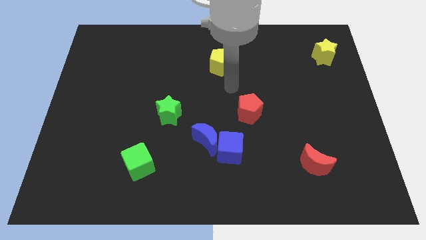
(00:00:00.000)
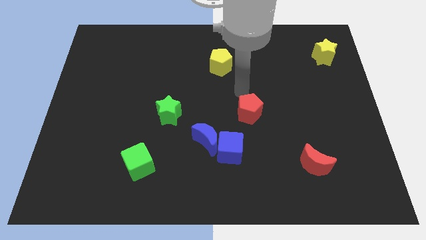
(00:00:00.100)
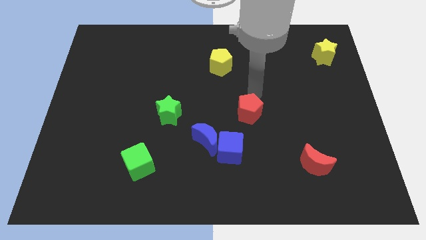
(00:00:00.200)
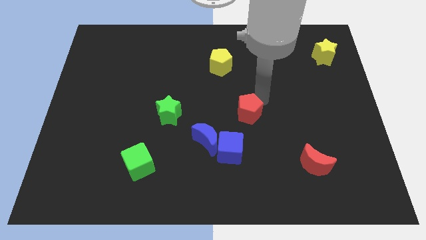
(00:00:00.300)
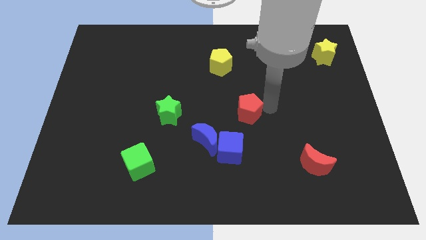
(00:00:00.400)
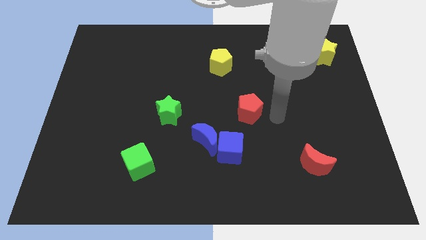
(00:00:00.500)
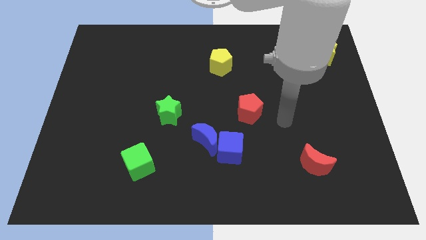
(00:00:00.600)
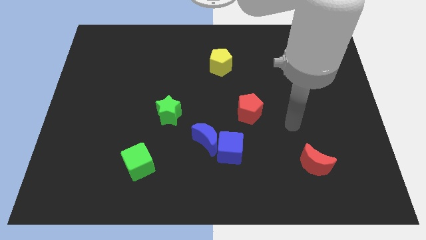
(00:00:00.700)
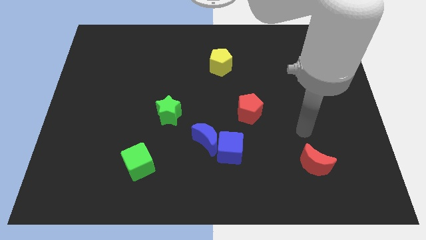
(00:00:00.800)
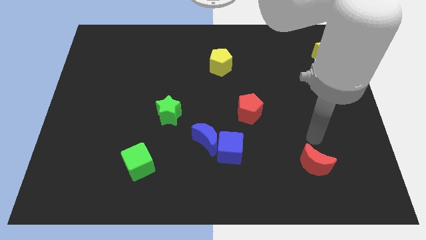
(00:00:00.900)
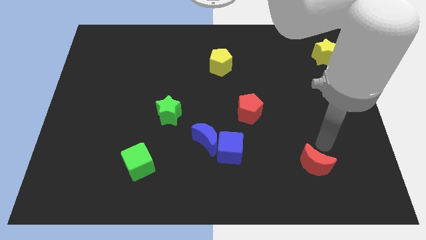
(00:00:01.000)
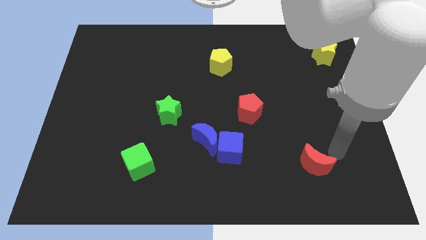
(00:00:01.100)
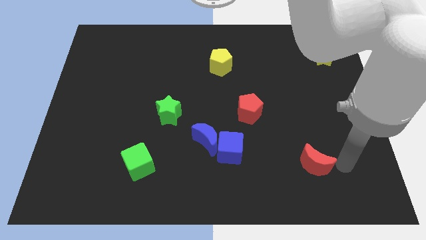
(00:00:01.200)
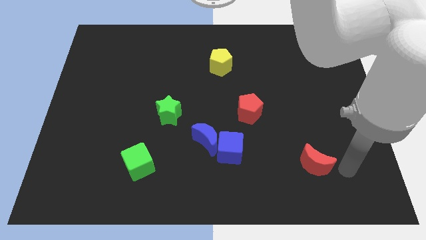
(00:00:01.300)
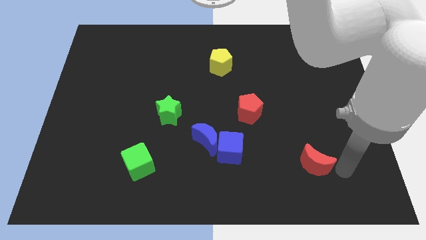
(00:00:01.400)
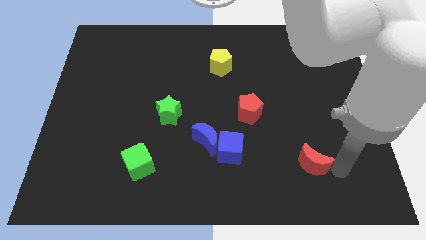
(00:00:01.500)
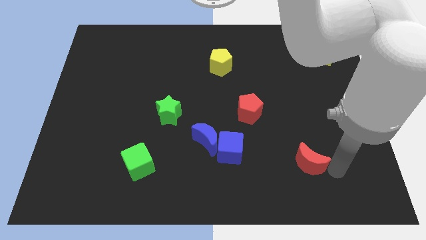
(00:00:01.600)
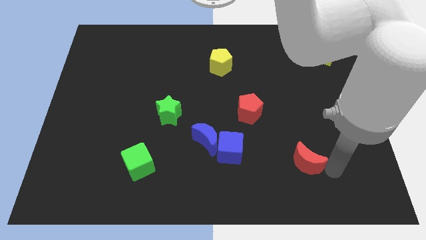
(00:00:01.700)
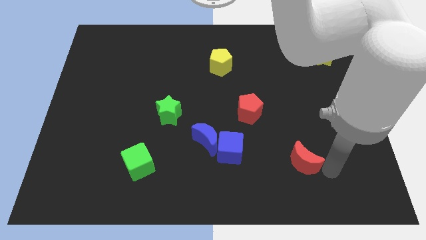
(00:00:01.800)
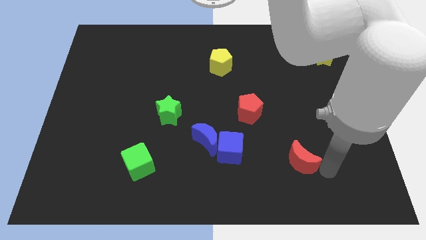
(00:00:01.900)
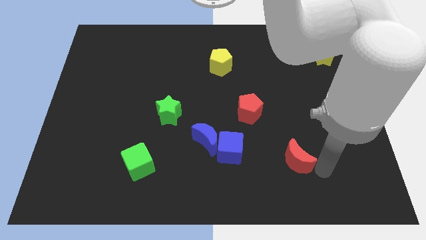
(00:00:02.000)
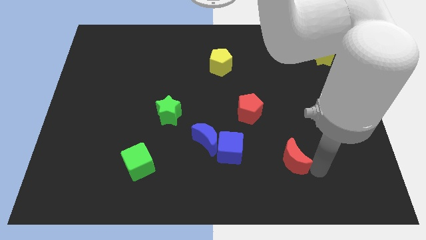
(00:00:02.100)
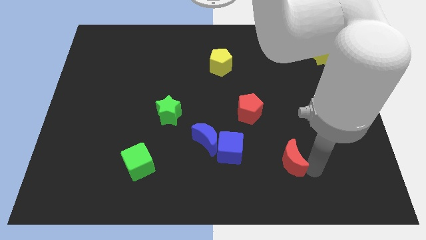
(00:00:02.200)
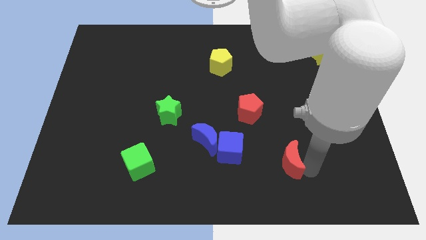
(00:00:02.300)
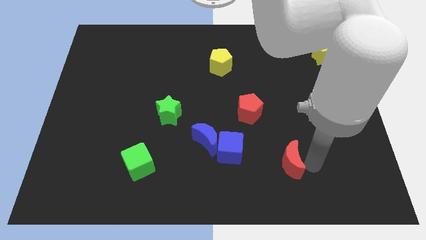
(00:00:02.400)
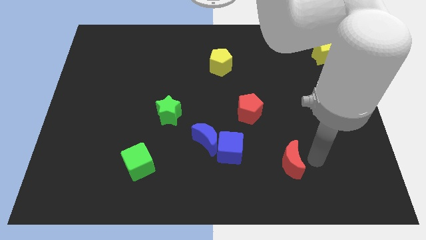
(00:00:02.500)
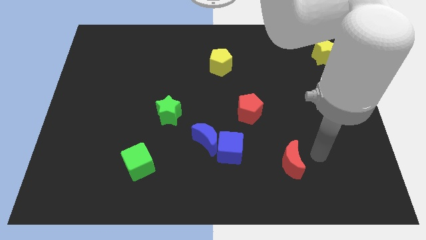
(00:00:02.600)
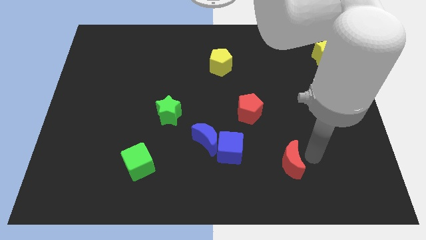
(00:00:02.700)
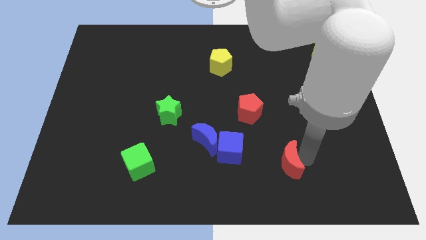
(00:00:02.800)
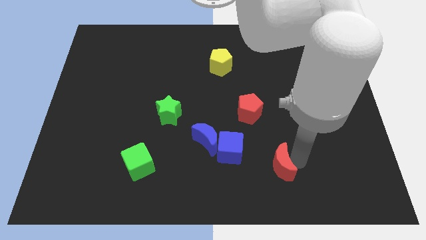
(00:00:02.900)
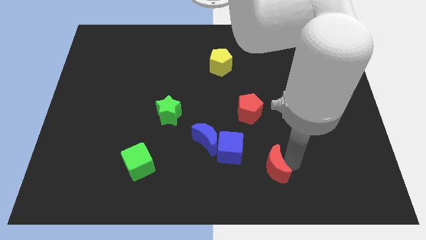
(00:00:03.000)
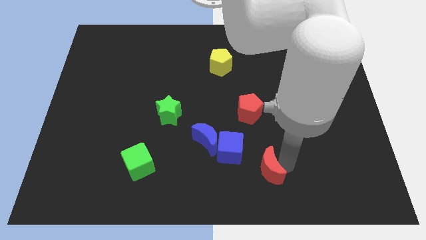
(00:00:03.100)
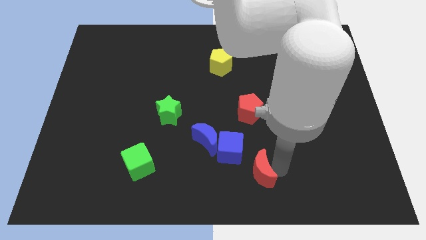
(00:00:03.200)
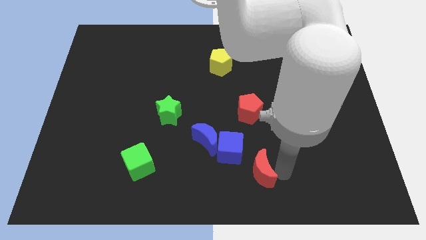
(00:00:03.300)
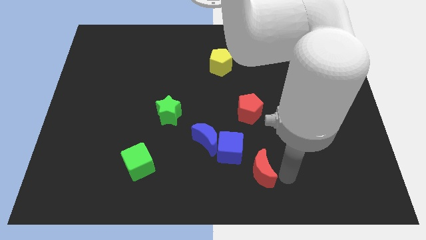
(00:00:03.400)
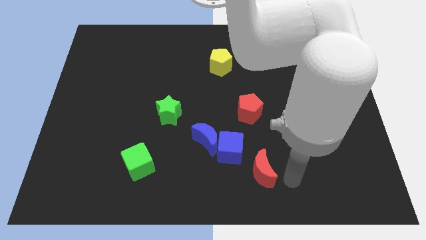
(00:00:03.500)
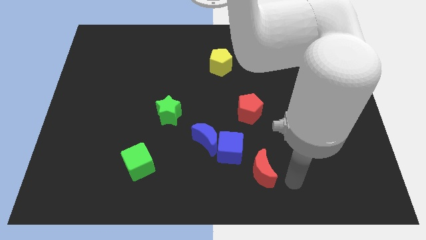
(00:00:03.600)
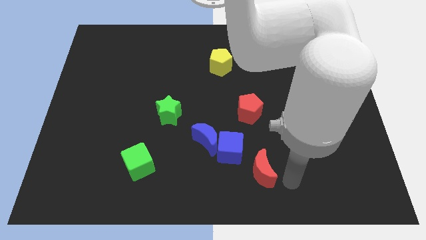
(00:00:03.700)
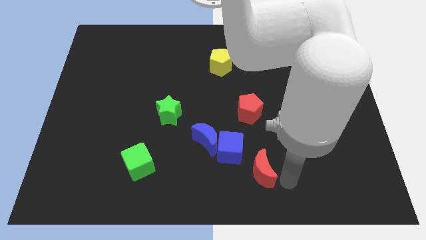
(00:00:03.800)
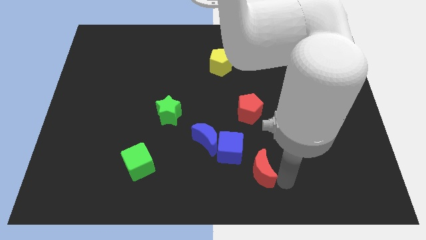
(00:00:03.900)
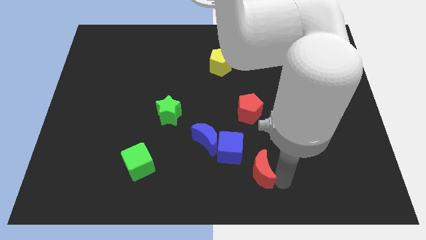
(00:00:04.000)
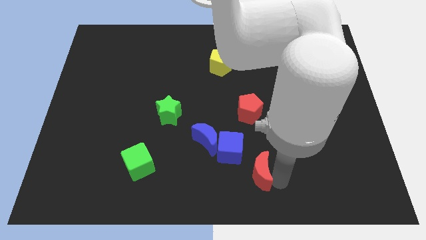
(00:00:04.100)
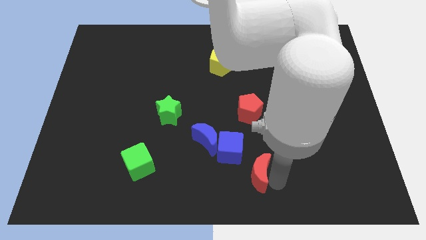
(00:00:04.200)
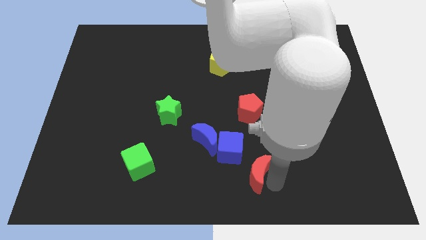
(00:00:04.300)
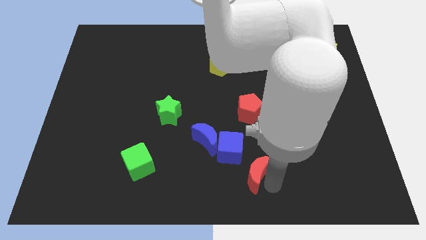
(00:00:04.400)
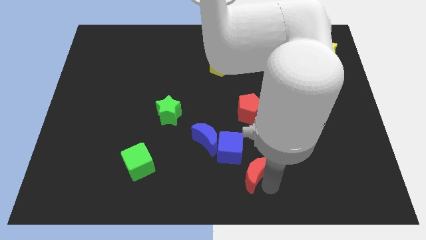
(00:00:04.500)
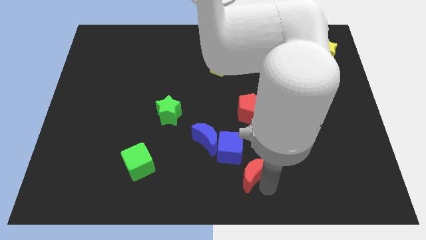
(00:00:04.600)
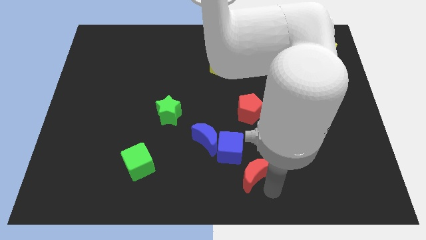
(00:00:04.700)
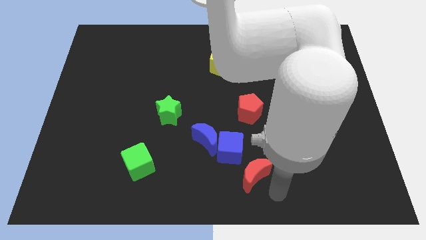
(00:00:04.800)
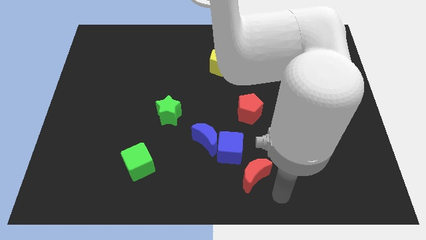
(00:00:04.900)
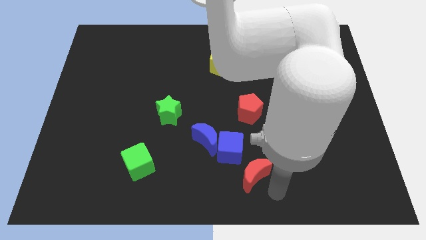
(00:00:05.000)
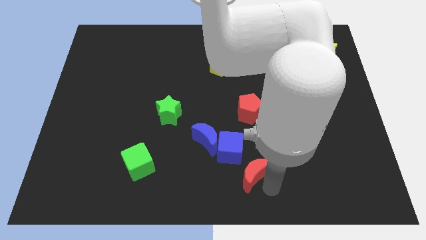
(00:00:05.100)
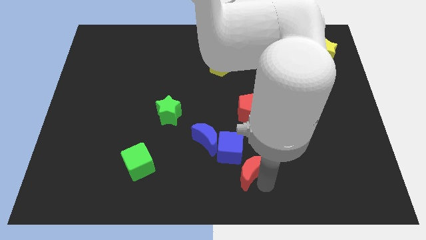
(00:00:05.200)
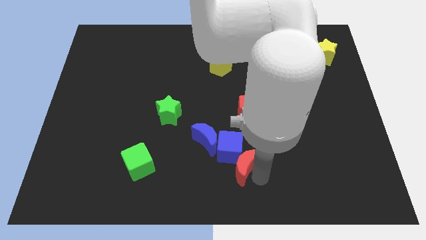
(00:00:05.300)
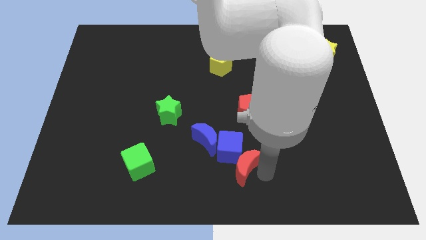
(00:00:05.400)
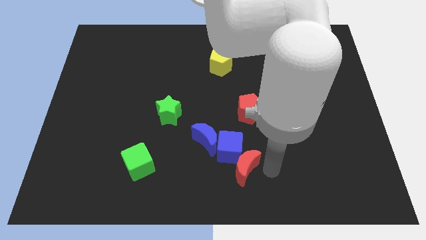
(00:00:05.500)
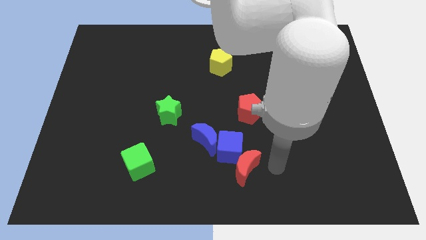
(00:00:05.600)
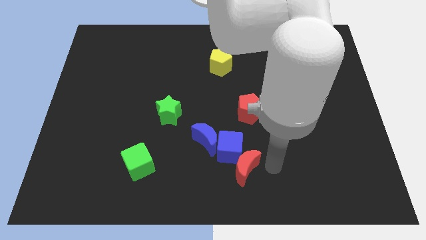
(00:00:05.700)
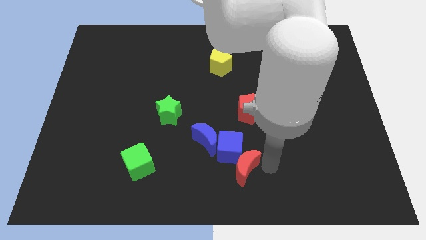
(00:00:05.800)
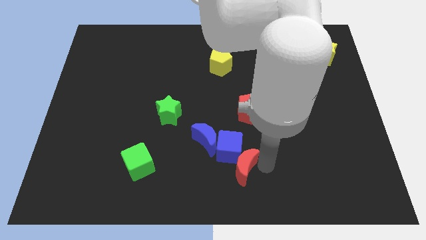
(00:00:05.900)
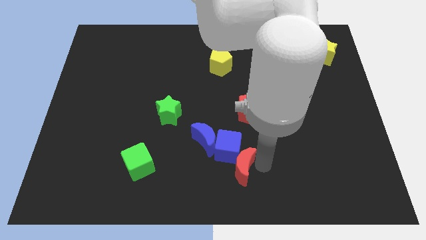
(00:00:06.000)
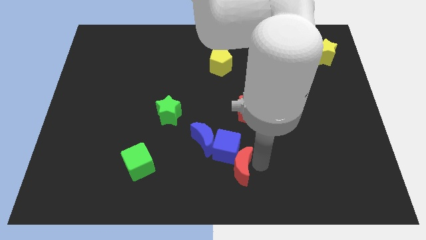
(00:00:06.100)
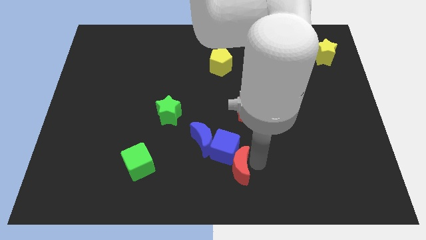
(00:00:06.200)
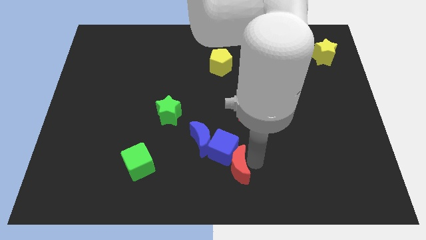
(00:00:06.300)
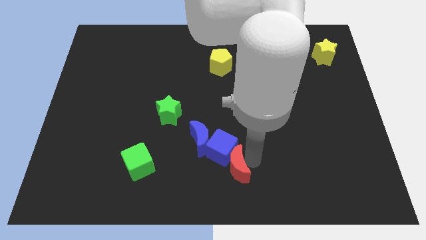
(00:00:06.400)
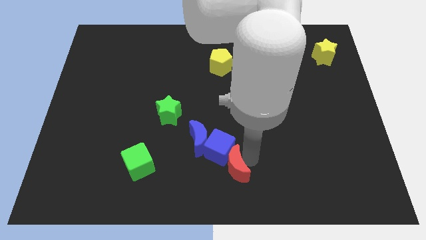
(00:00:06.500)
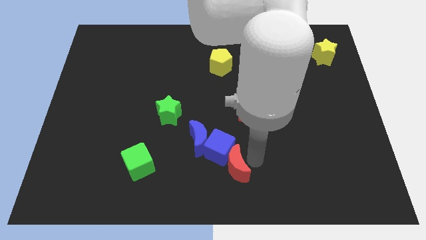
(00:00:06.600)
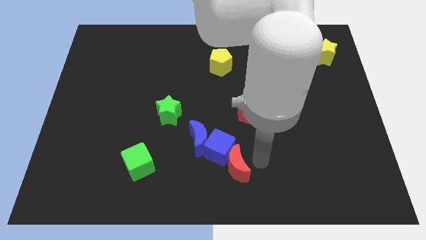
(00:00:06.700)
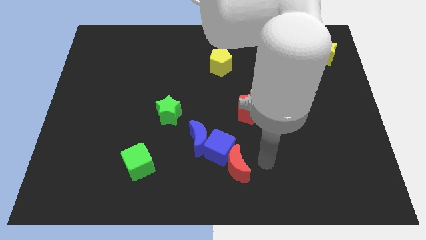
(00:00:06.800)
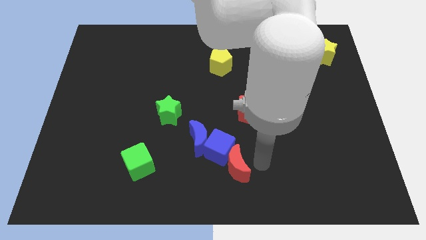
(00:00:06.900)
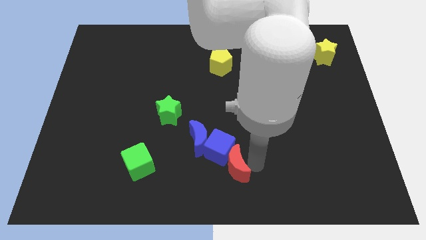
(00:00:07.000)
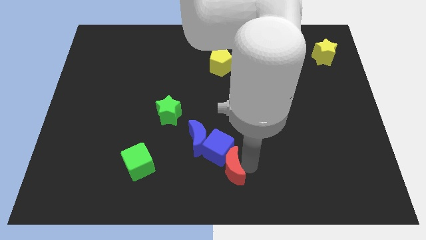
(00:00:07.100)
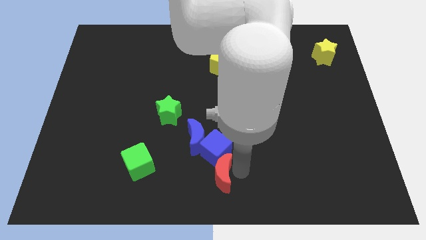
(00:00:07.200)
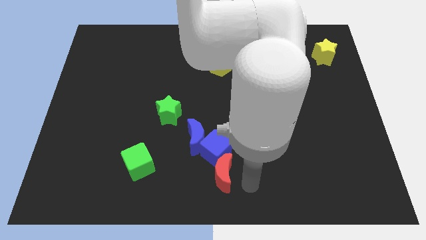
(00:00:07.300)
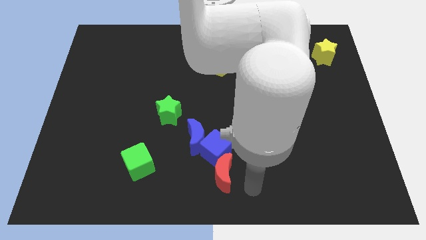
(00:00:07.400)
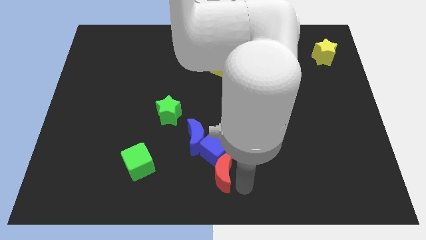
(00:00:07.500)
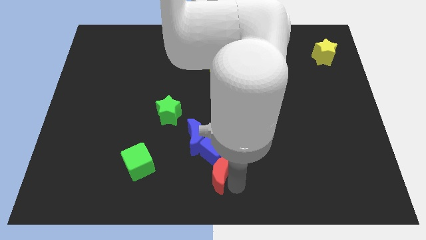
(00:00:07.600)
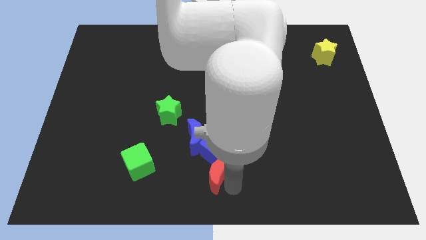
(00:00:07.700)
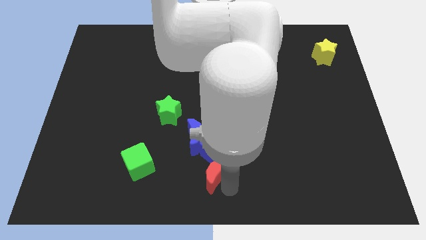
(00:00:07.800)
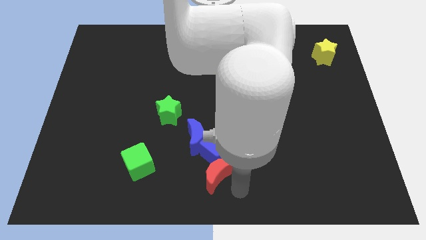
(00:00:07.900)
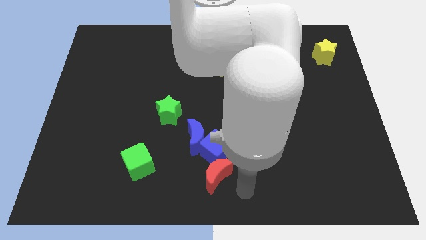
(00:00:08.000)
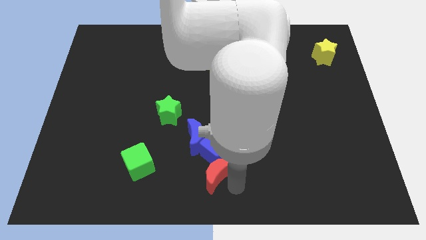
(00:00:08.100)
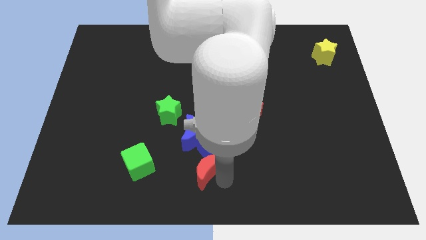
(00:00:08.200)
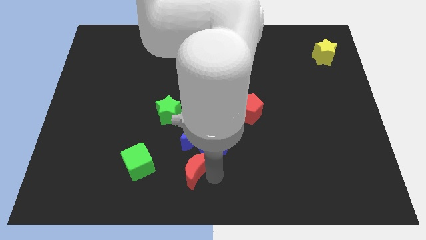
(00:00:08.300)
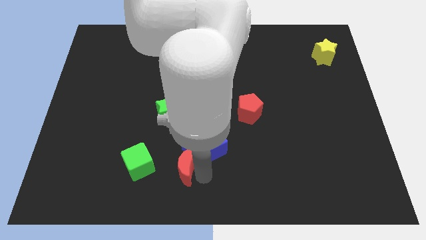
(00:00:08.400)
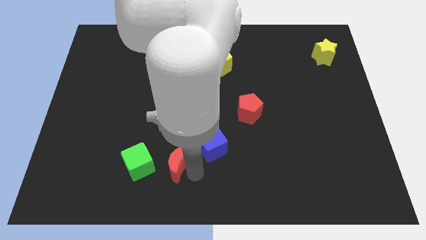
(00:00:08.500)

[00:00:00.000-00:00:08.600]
slide the red moon left of the blue cube
